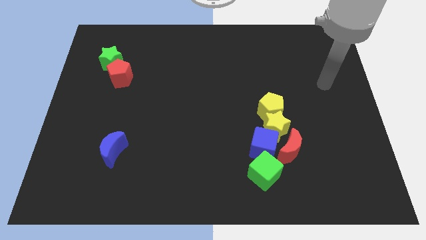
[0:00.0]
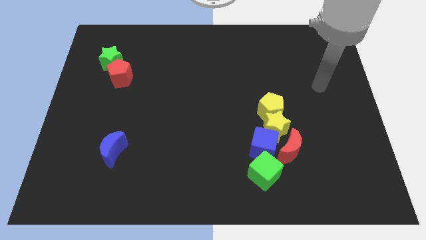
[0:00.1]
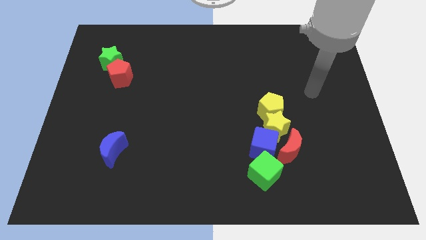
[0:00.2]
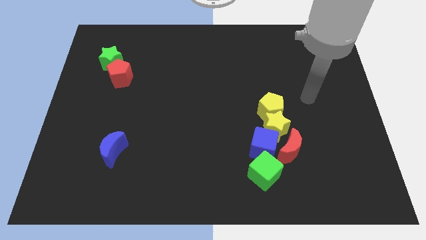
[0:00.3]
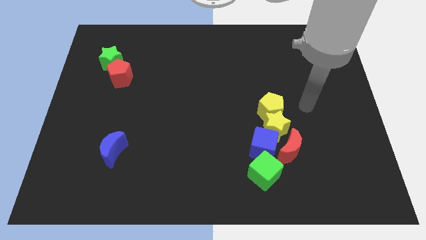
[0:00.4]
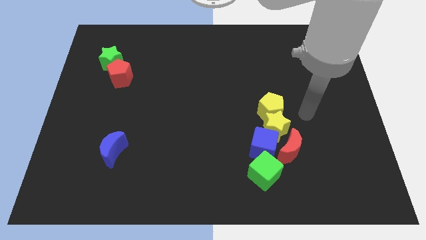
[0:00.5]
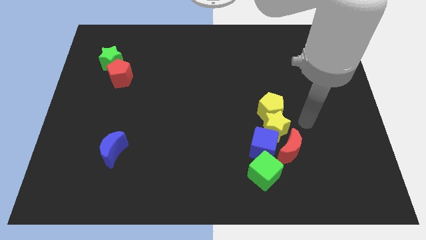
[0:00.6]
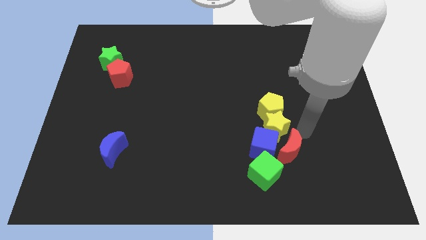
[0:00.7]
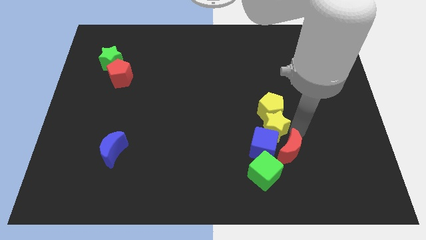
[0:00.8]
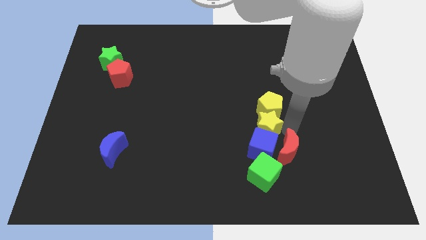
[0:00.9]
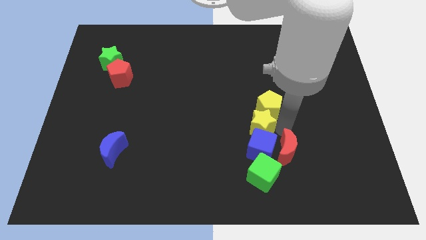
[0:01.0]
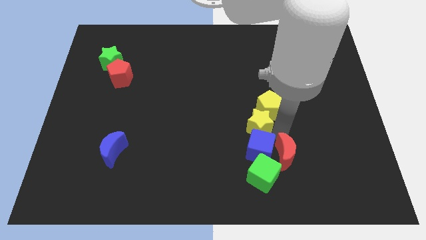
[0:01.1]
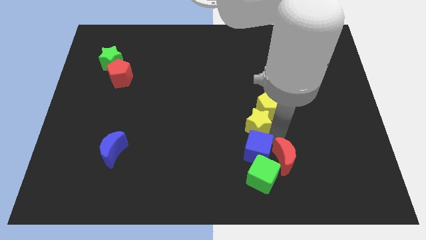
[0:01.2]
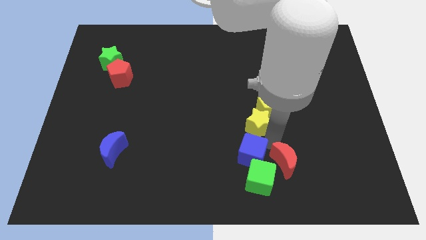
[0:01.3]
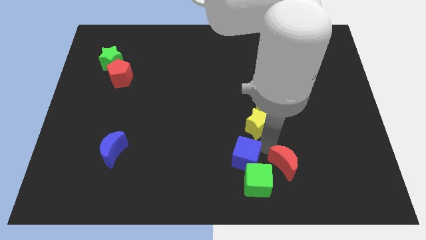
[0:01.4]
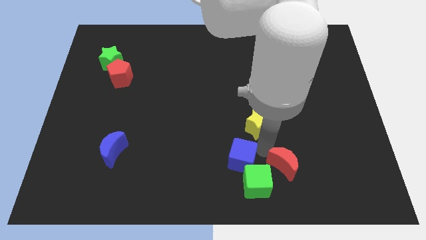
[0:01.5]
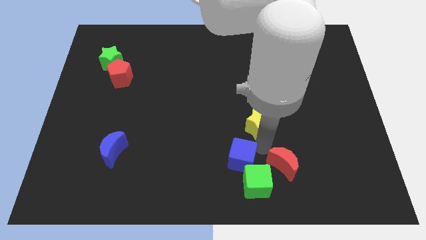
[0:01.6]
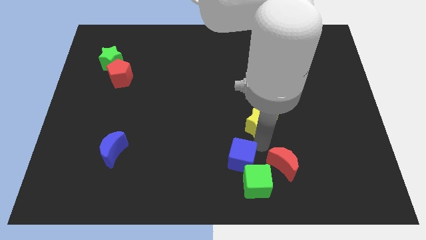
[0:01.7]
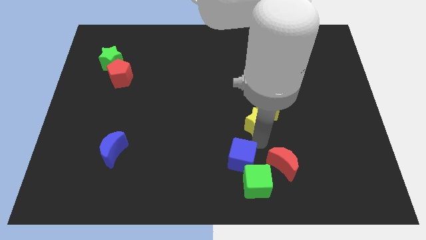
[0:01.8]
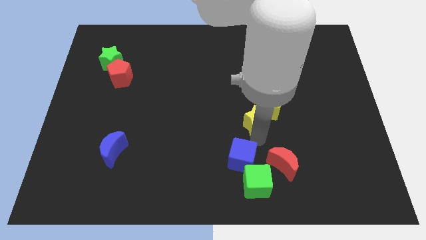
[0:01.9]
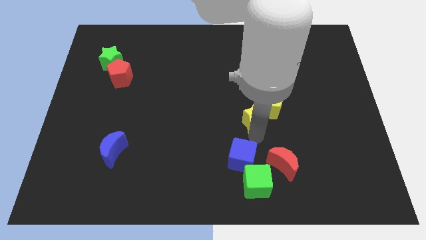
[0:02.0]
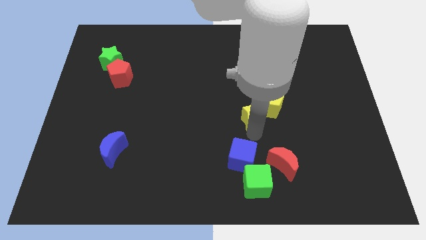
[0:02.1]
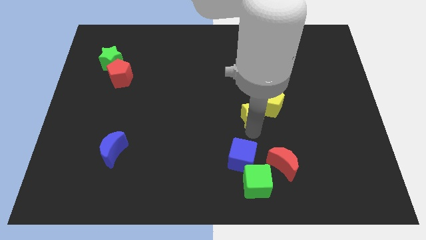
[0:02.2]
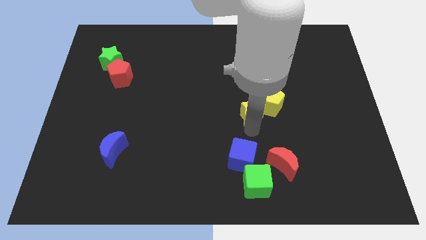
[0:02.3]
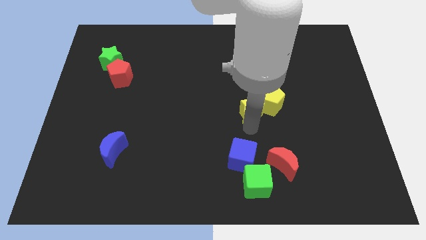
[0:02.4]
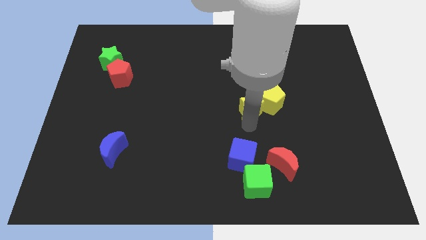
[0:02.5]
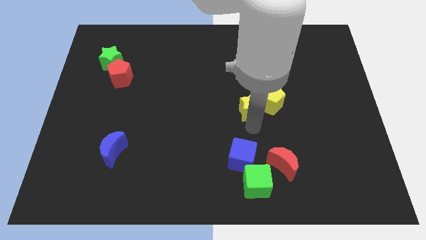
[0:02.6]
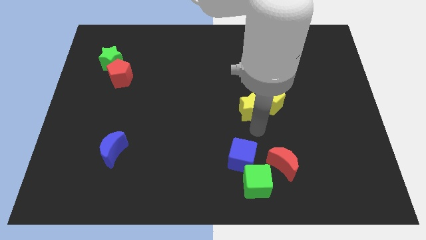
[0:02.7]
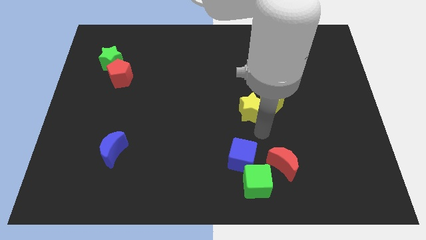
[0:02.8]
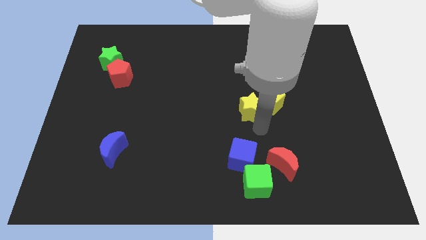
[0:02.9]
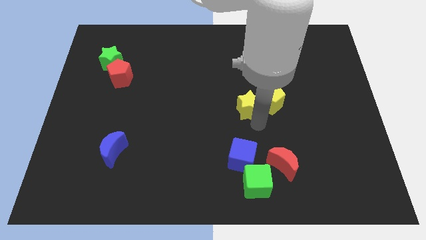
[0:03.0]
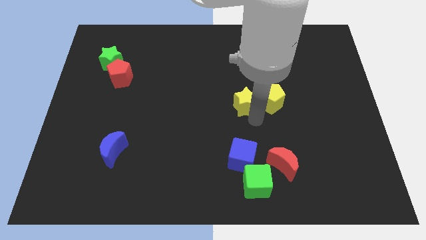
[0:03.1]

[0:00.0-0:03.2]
move the yellow star away from the clump

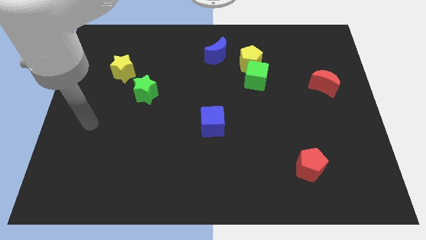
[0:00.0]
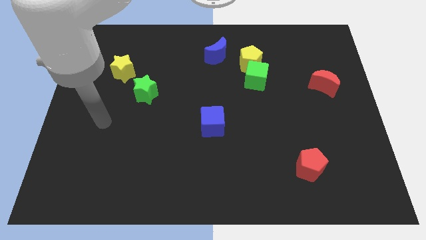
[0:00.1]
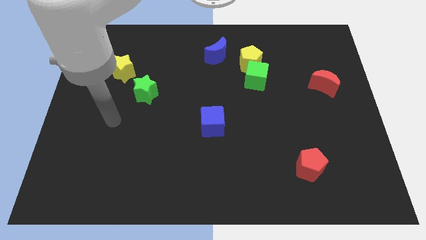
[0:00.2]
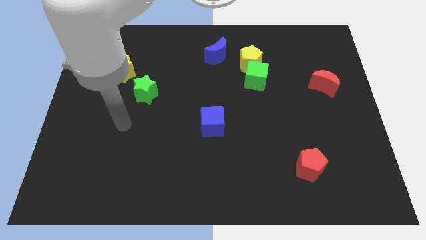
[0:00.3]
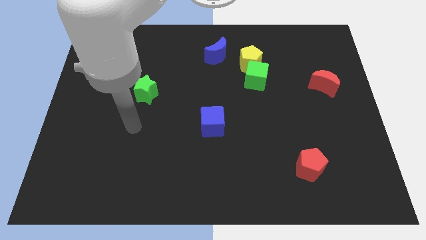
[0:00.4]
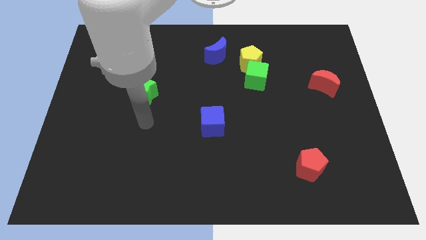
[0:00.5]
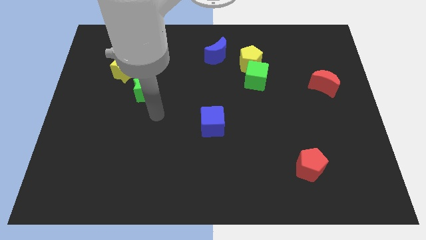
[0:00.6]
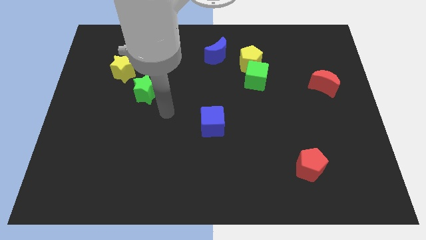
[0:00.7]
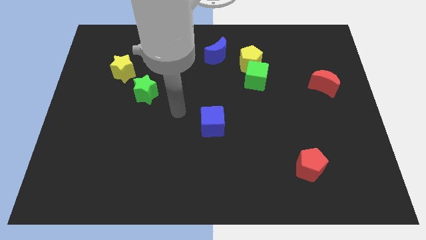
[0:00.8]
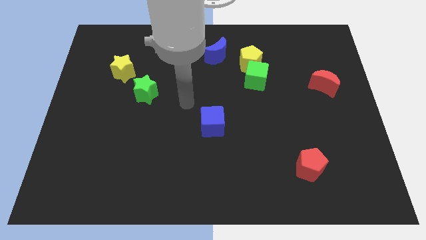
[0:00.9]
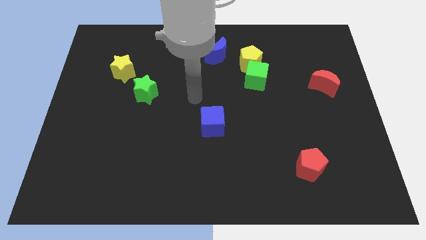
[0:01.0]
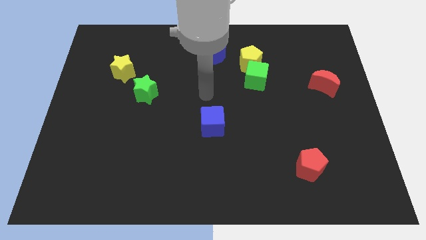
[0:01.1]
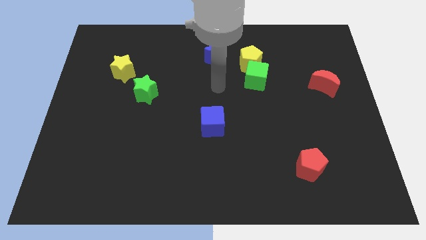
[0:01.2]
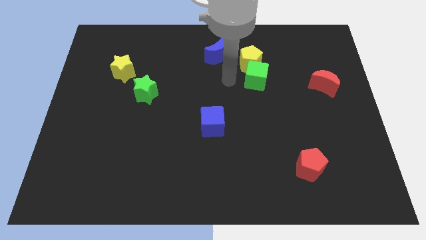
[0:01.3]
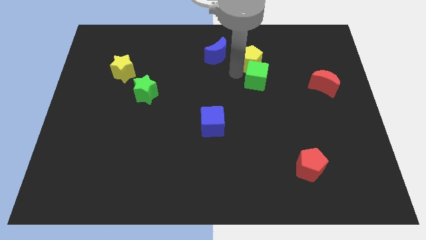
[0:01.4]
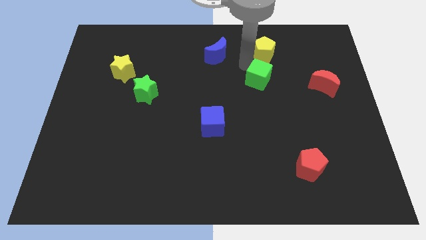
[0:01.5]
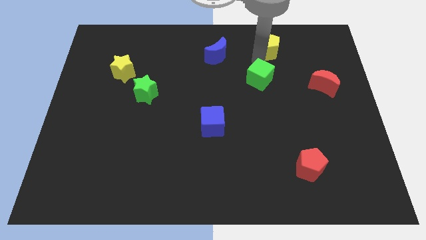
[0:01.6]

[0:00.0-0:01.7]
pull the green cube apart from the yellow pentagon

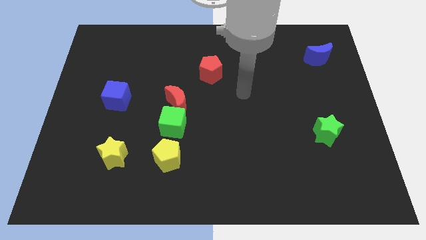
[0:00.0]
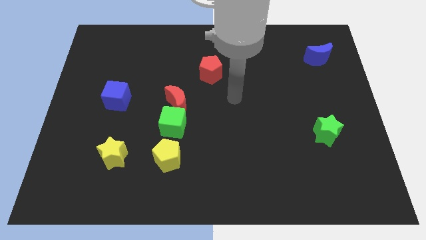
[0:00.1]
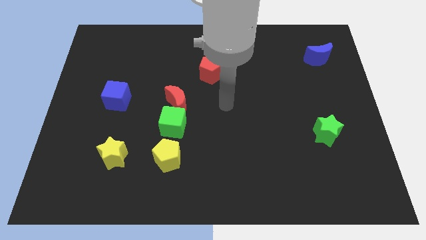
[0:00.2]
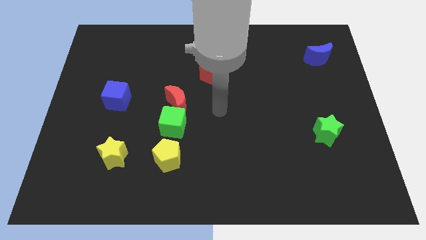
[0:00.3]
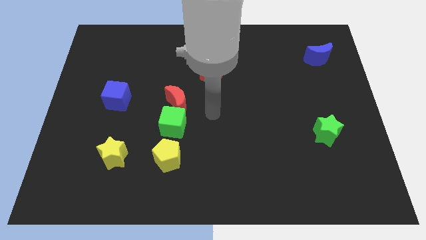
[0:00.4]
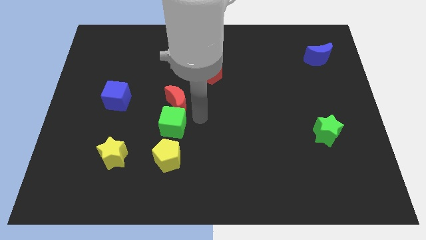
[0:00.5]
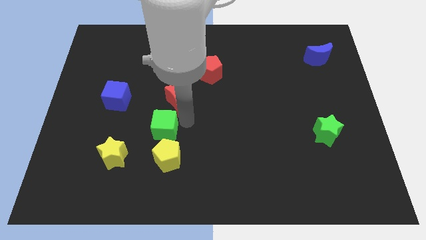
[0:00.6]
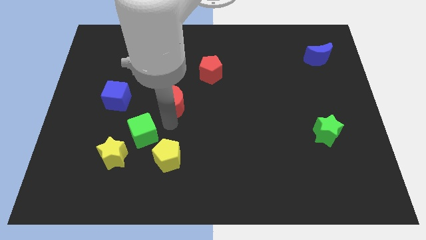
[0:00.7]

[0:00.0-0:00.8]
move the red moon away from the green cube

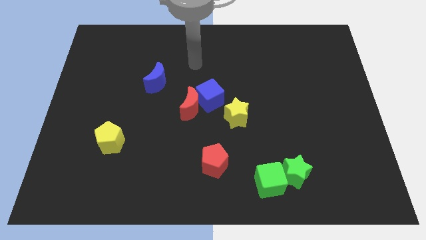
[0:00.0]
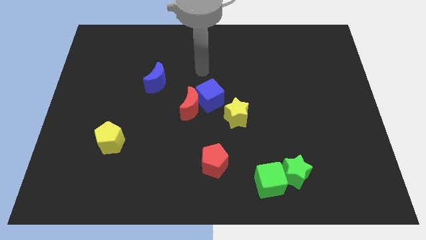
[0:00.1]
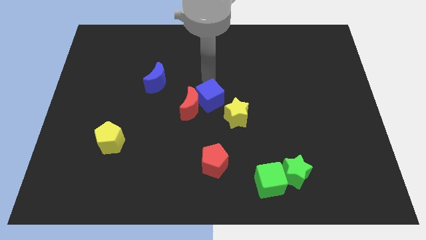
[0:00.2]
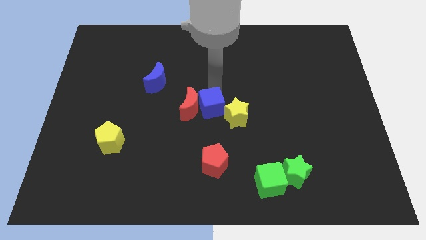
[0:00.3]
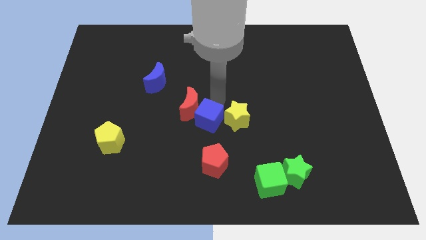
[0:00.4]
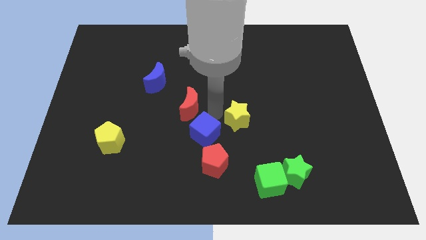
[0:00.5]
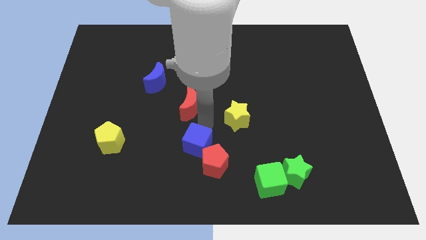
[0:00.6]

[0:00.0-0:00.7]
separate the red moon from the blue cube

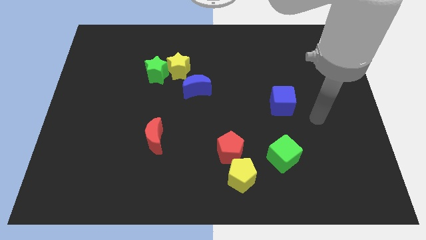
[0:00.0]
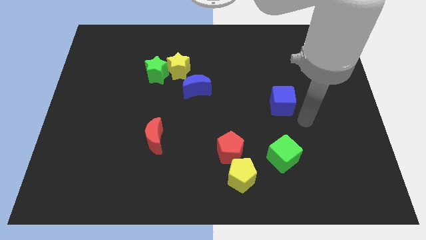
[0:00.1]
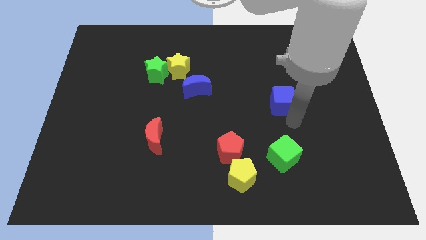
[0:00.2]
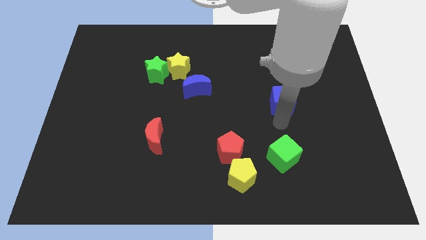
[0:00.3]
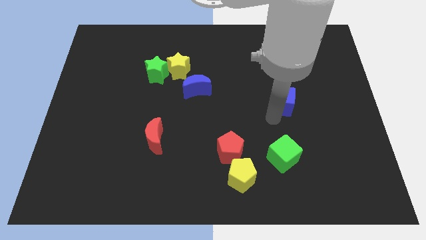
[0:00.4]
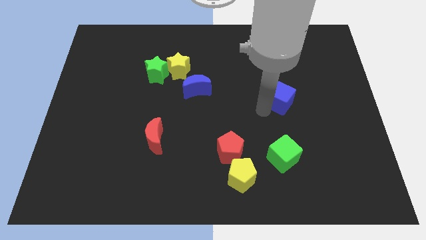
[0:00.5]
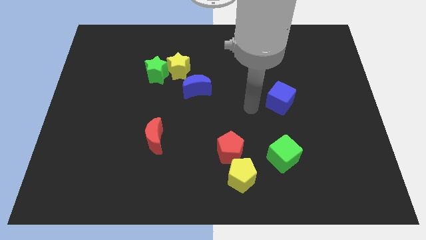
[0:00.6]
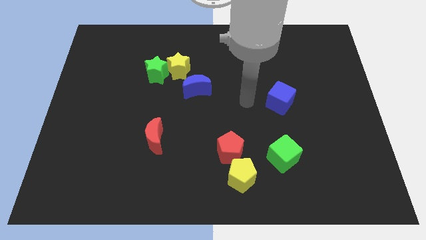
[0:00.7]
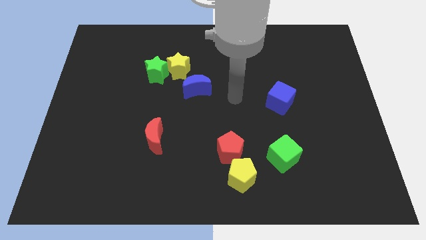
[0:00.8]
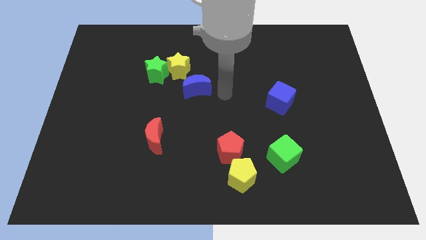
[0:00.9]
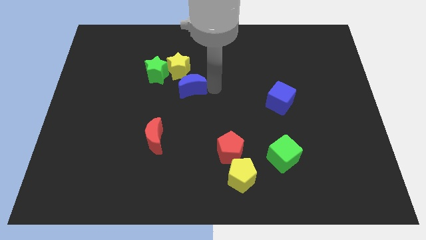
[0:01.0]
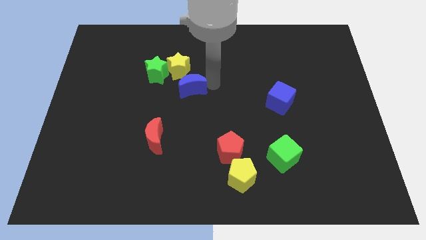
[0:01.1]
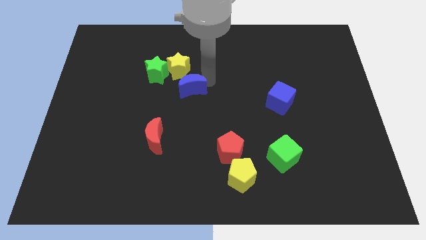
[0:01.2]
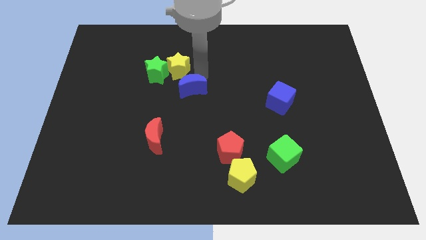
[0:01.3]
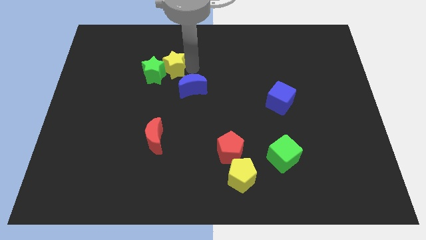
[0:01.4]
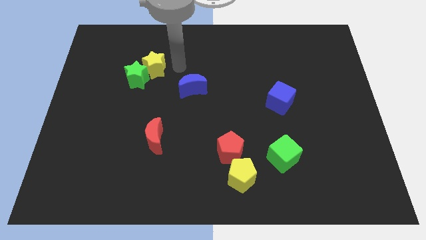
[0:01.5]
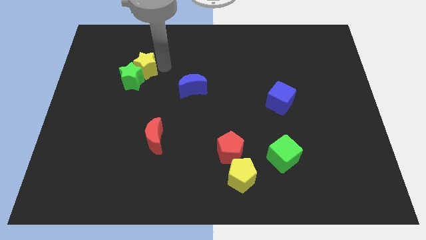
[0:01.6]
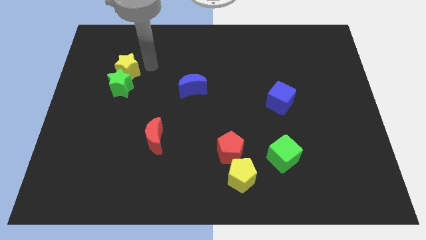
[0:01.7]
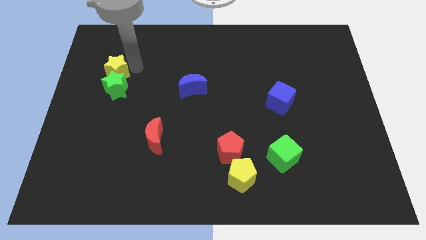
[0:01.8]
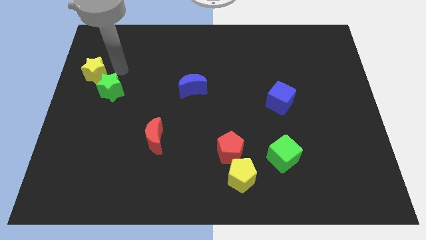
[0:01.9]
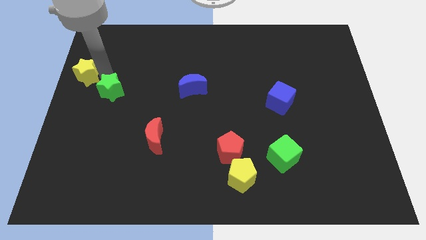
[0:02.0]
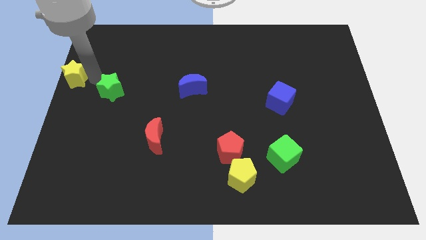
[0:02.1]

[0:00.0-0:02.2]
pull the green star apart from the yellow star

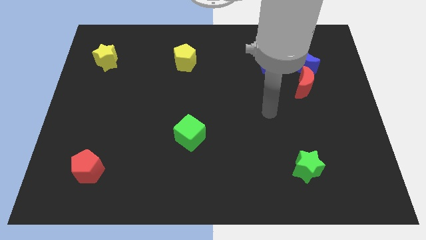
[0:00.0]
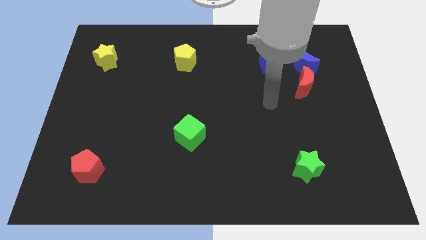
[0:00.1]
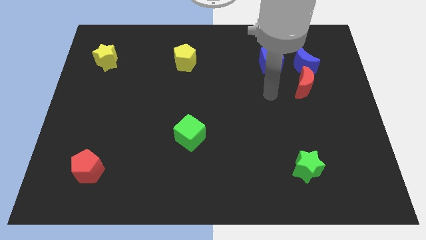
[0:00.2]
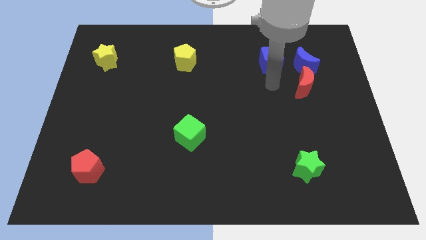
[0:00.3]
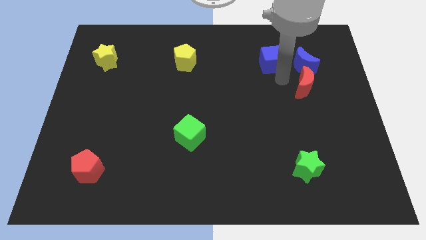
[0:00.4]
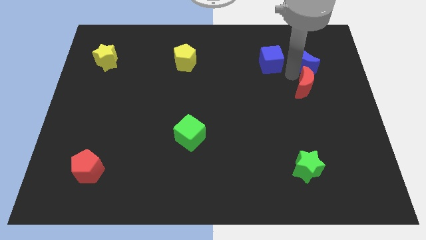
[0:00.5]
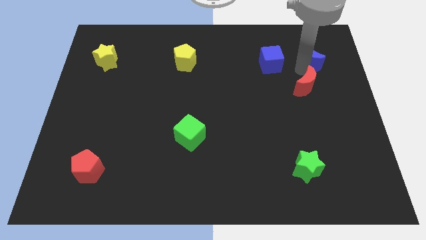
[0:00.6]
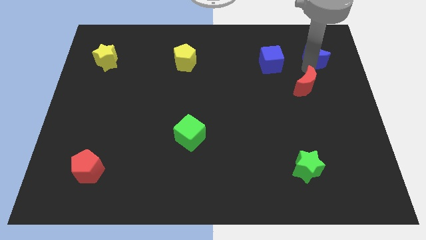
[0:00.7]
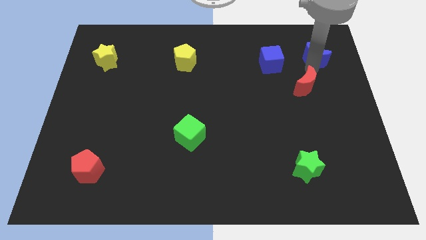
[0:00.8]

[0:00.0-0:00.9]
pull the red moon apart from the blue moon
